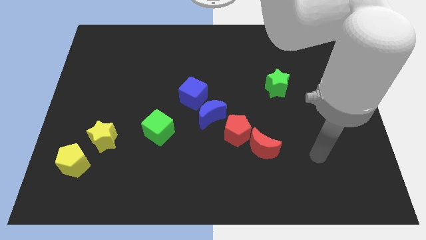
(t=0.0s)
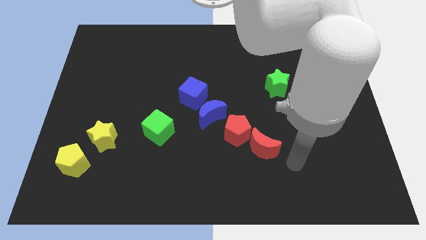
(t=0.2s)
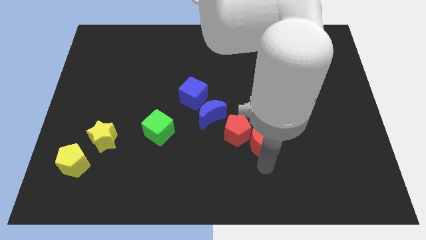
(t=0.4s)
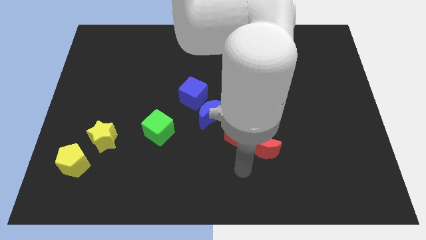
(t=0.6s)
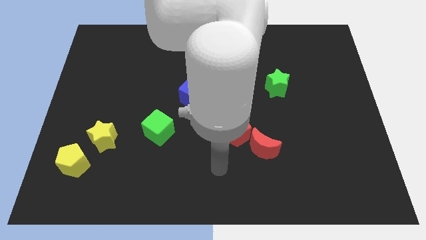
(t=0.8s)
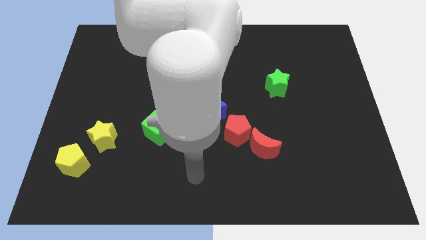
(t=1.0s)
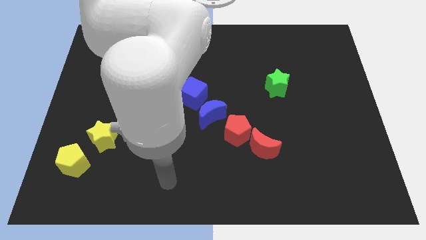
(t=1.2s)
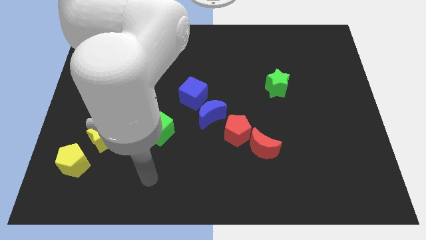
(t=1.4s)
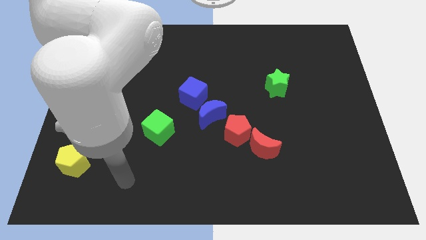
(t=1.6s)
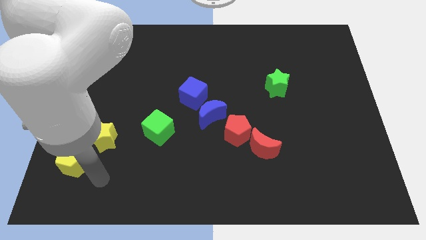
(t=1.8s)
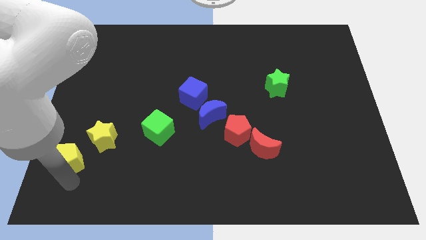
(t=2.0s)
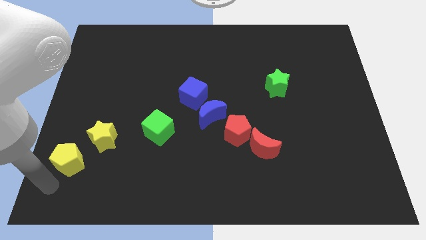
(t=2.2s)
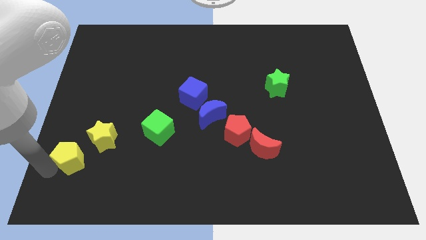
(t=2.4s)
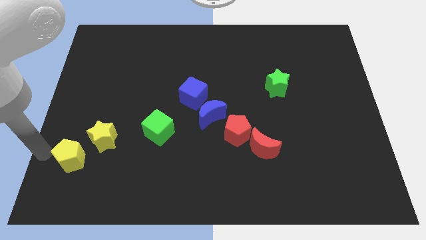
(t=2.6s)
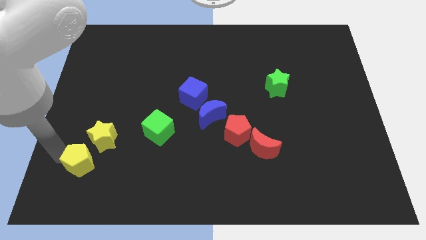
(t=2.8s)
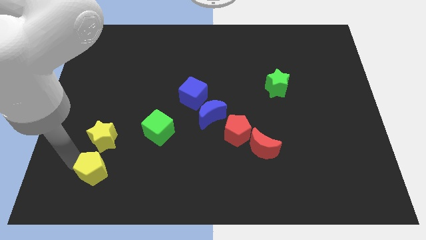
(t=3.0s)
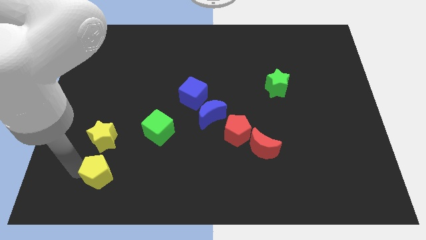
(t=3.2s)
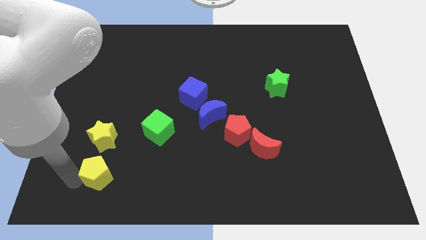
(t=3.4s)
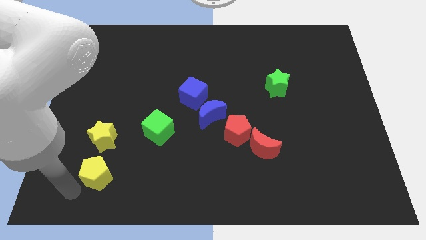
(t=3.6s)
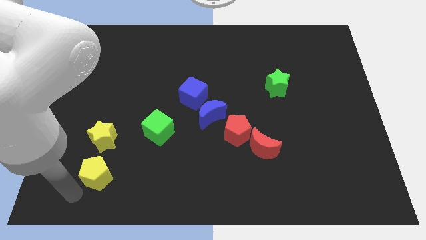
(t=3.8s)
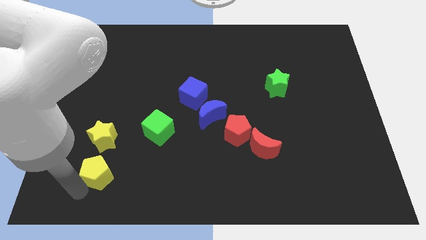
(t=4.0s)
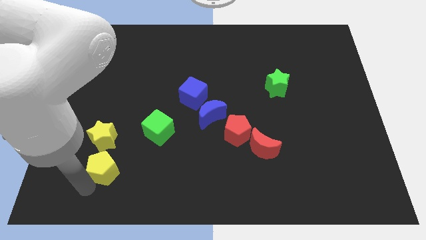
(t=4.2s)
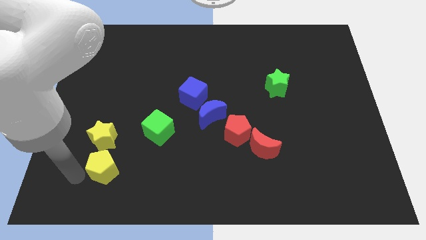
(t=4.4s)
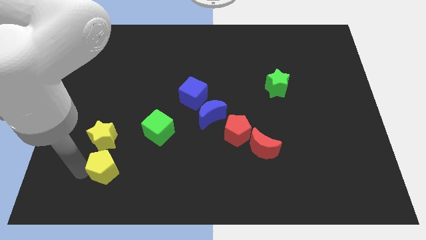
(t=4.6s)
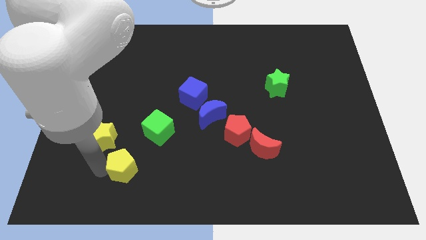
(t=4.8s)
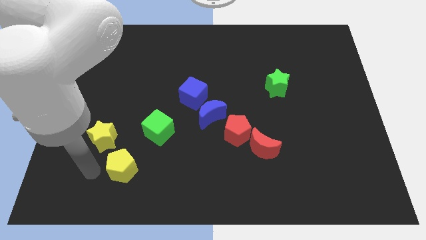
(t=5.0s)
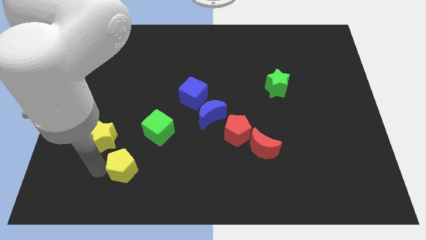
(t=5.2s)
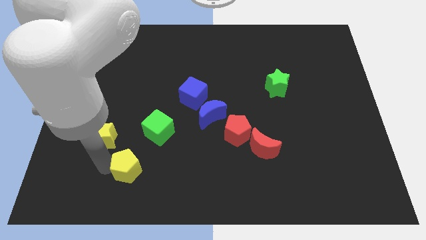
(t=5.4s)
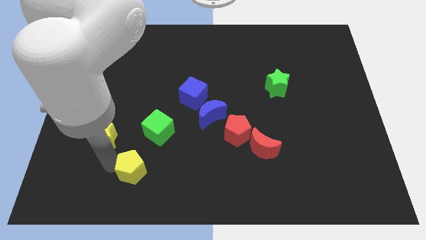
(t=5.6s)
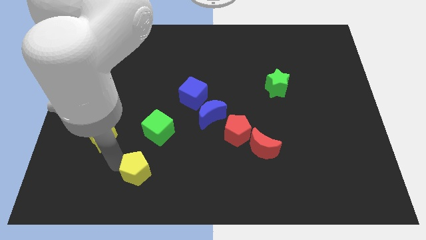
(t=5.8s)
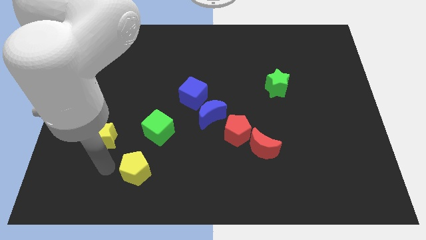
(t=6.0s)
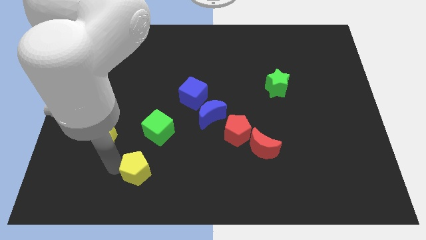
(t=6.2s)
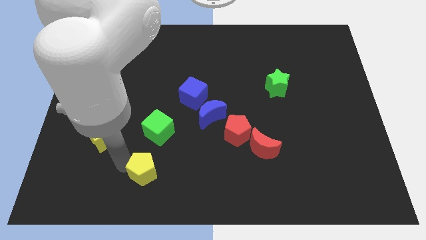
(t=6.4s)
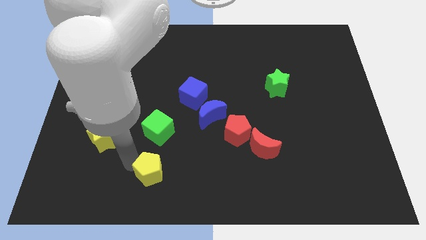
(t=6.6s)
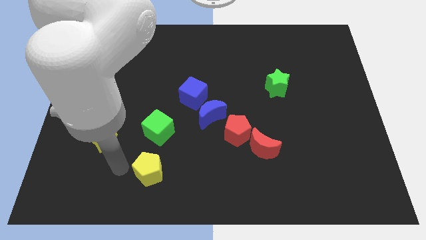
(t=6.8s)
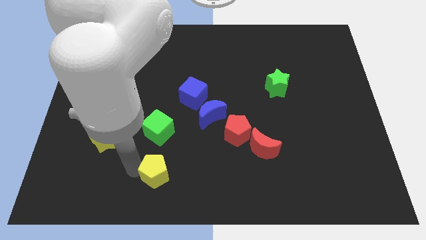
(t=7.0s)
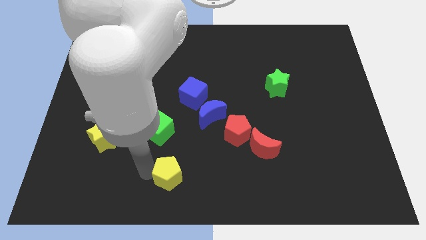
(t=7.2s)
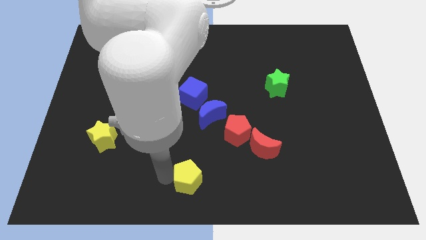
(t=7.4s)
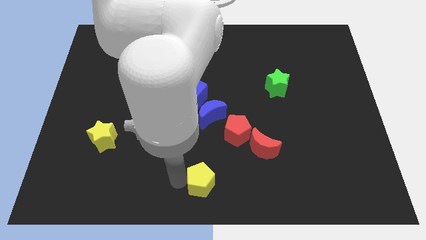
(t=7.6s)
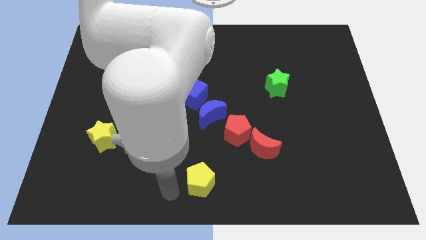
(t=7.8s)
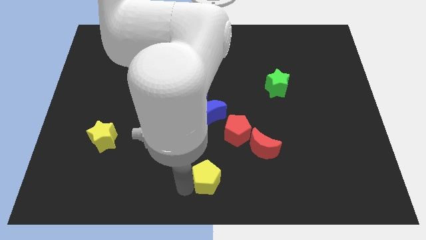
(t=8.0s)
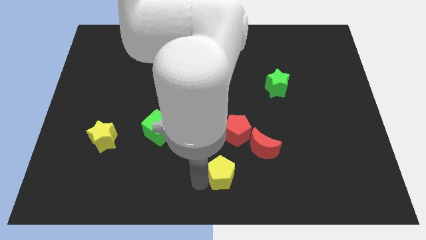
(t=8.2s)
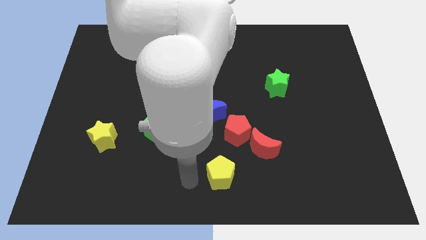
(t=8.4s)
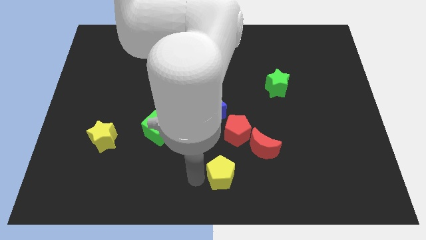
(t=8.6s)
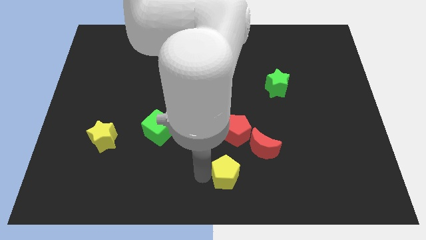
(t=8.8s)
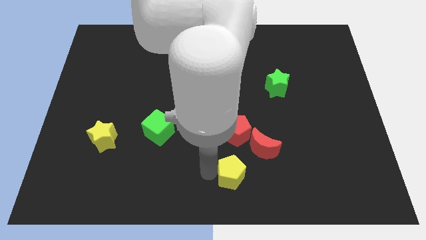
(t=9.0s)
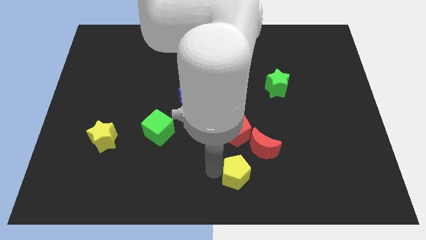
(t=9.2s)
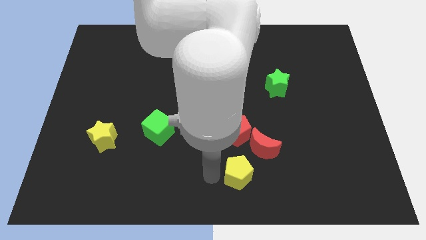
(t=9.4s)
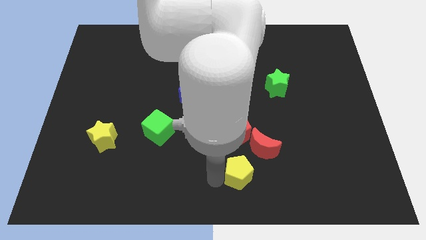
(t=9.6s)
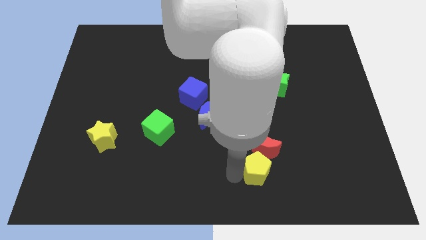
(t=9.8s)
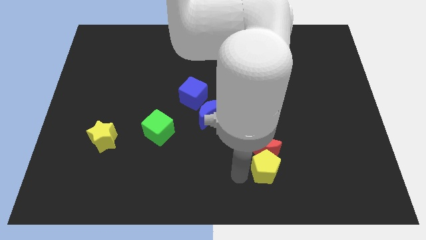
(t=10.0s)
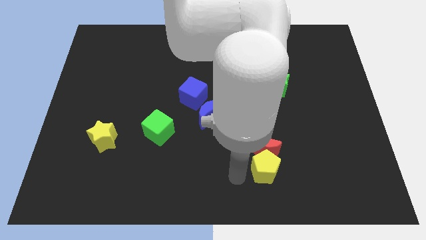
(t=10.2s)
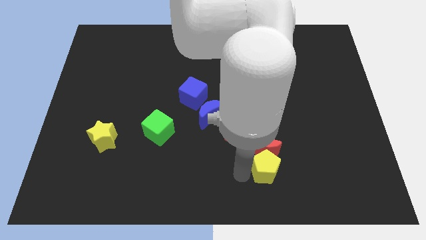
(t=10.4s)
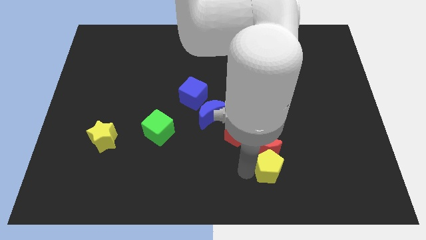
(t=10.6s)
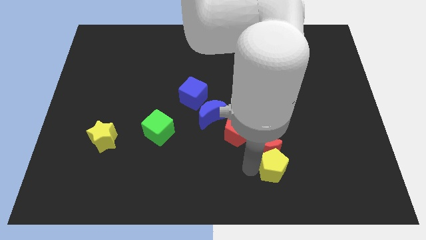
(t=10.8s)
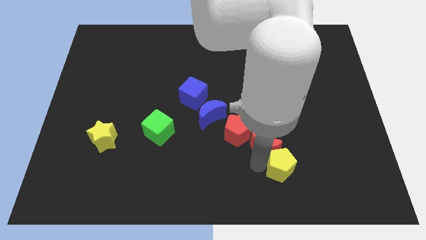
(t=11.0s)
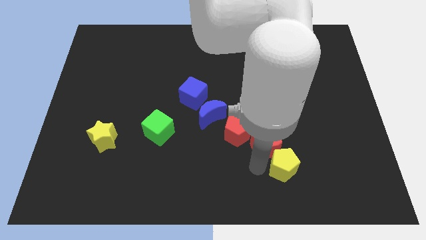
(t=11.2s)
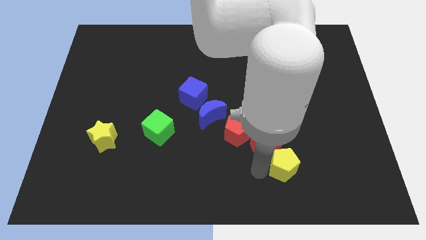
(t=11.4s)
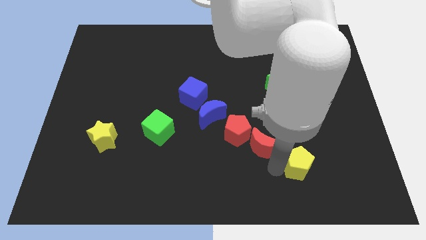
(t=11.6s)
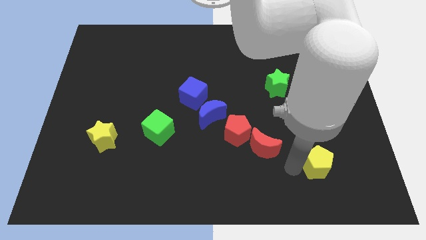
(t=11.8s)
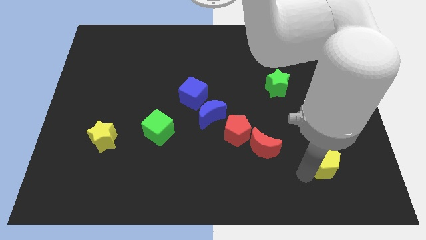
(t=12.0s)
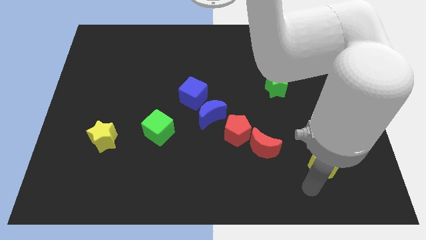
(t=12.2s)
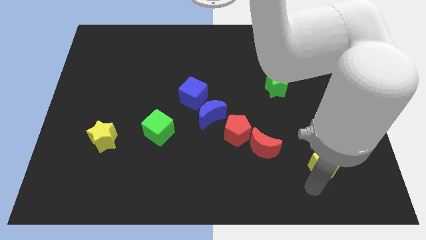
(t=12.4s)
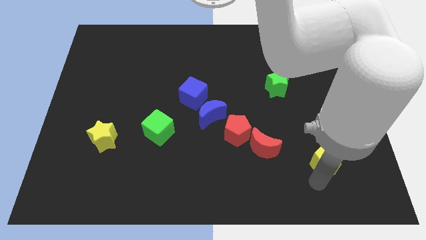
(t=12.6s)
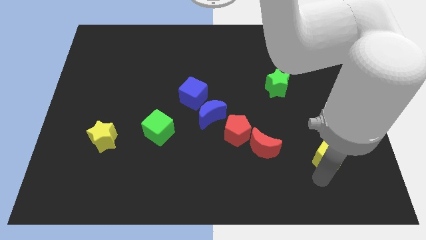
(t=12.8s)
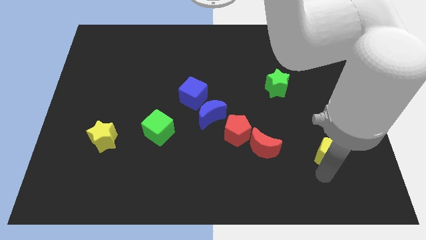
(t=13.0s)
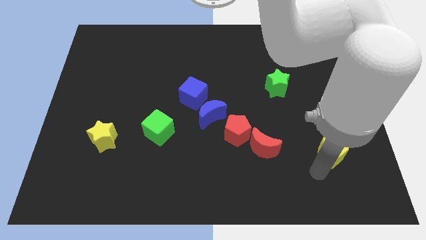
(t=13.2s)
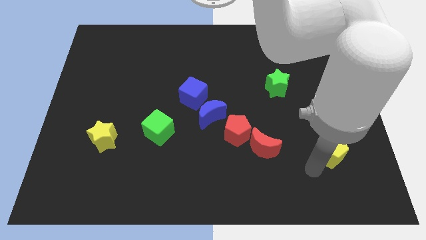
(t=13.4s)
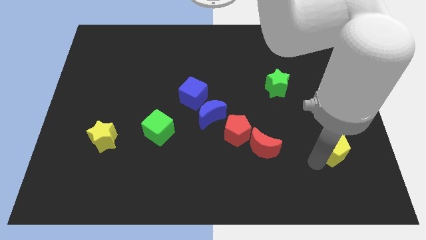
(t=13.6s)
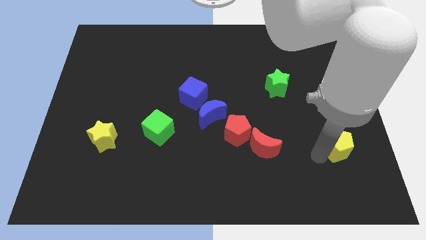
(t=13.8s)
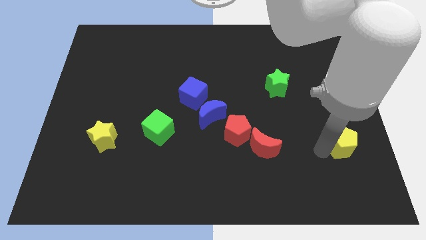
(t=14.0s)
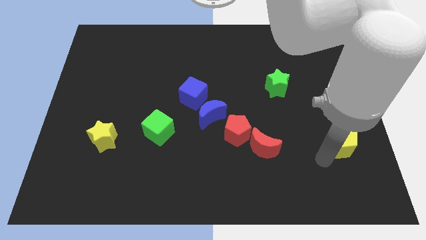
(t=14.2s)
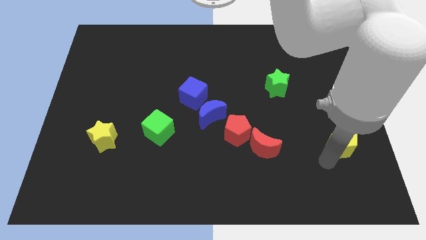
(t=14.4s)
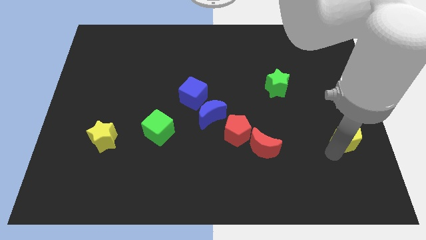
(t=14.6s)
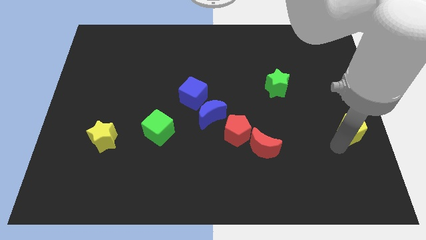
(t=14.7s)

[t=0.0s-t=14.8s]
push the yellow pentagon to the right side of the board
